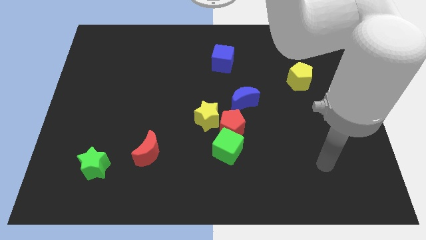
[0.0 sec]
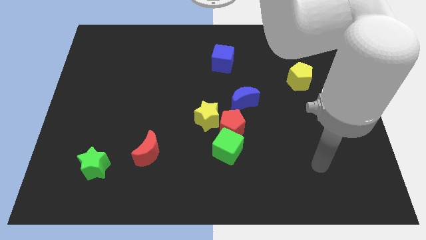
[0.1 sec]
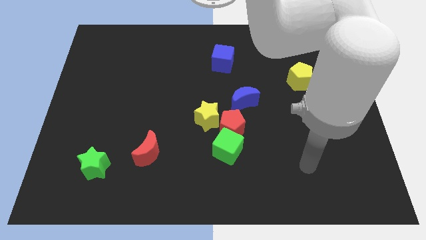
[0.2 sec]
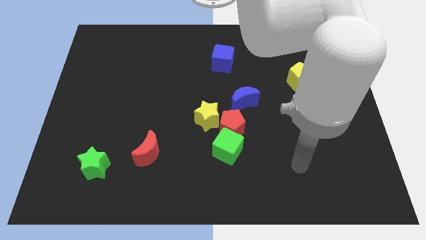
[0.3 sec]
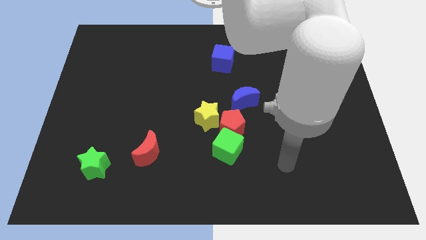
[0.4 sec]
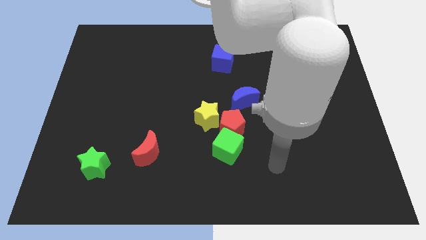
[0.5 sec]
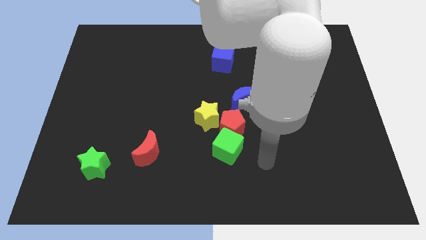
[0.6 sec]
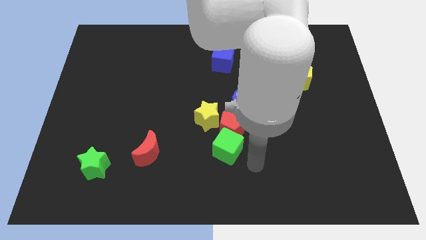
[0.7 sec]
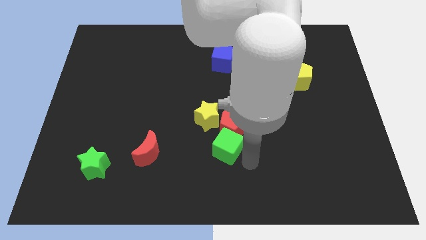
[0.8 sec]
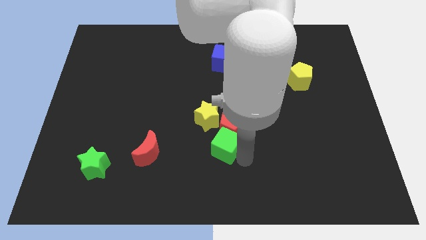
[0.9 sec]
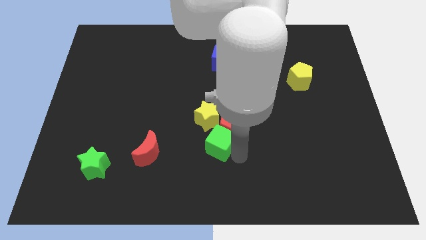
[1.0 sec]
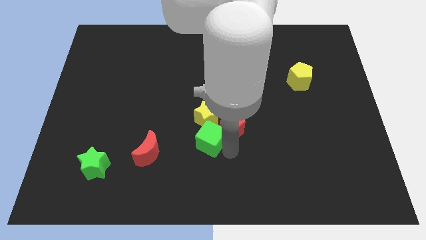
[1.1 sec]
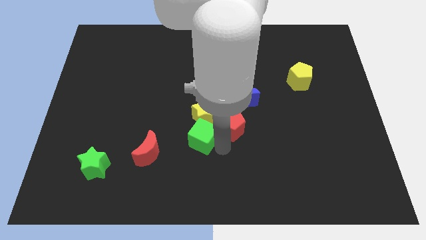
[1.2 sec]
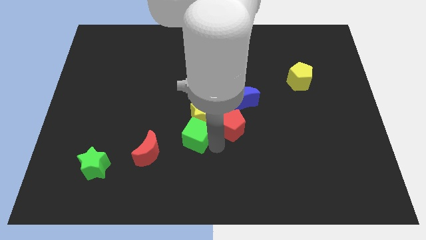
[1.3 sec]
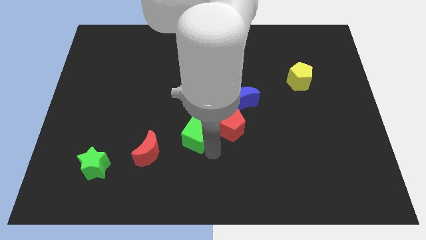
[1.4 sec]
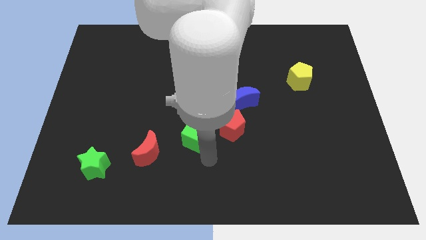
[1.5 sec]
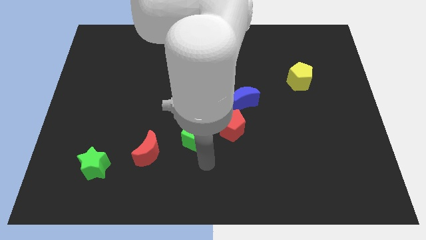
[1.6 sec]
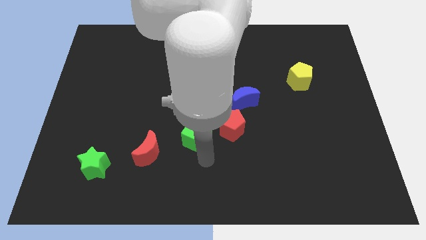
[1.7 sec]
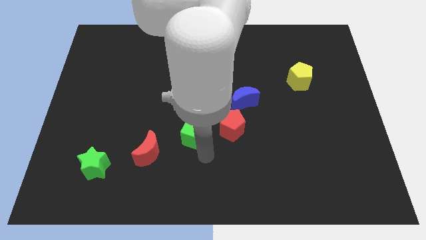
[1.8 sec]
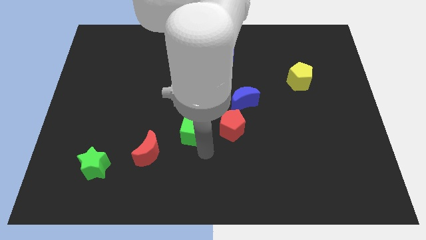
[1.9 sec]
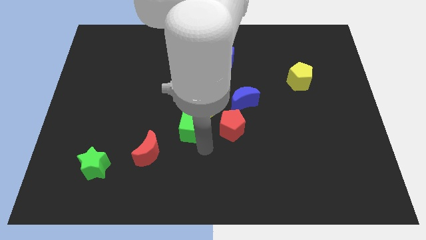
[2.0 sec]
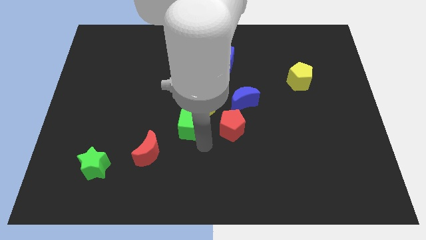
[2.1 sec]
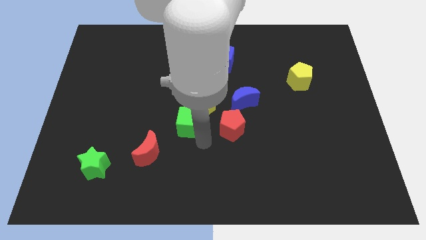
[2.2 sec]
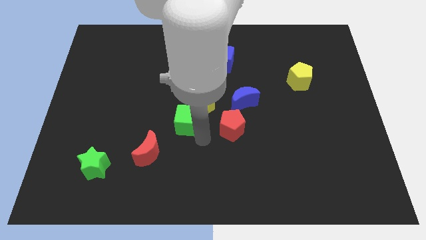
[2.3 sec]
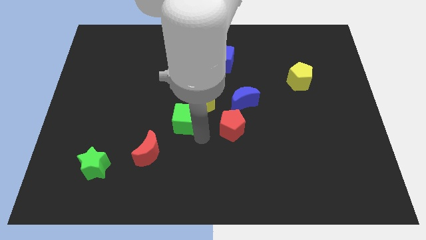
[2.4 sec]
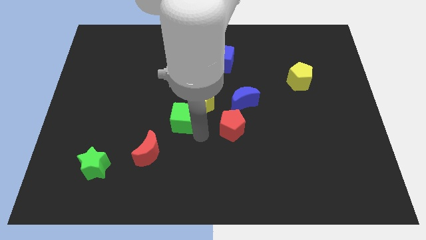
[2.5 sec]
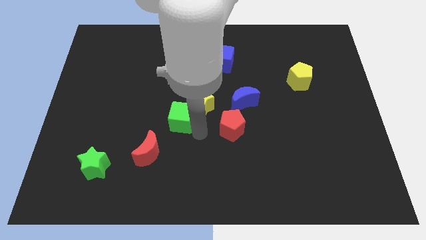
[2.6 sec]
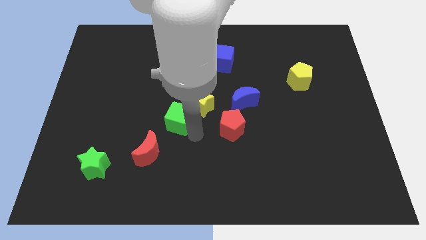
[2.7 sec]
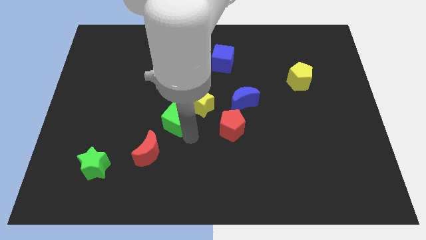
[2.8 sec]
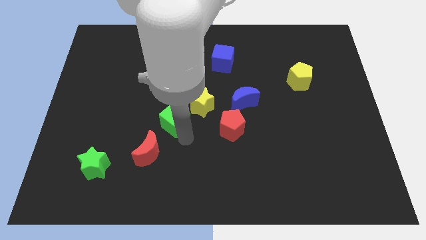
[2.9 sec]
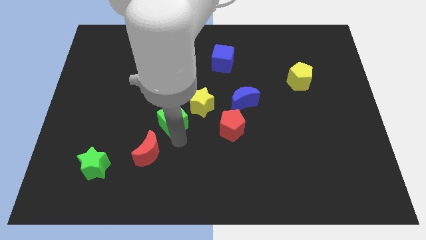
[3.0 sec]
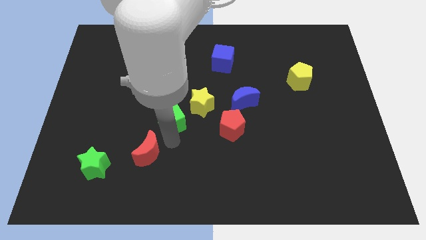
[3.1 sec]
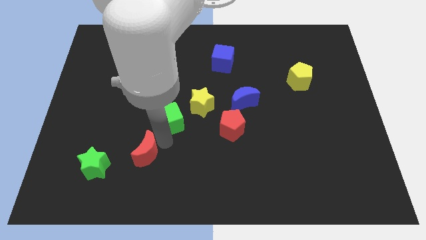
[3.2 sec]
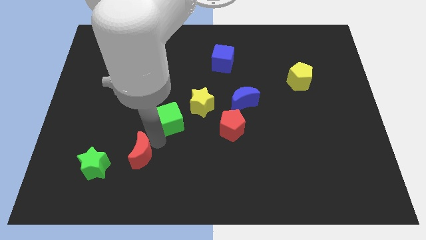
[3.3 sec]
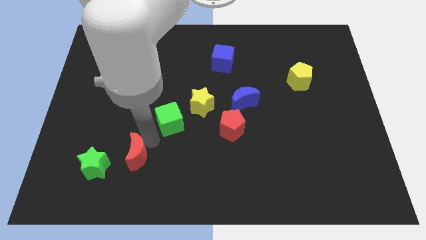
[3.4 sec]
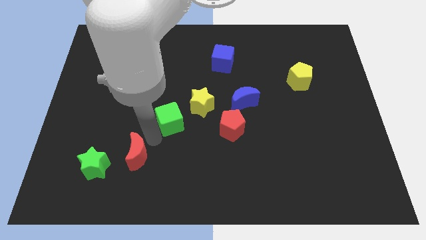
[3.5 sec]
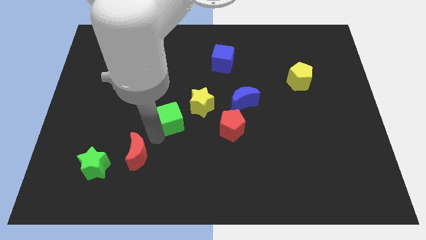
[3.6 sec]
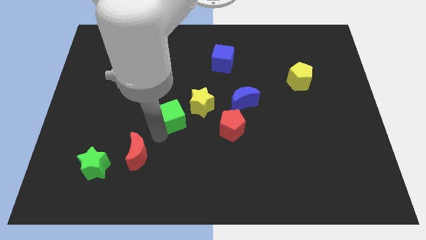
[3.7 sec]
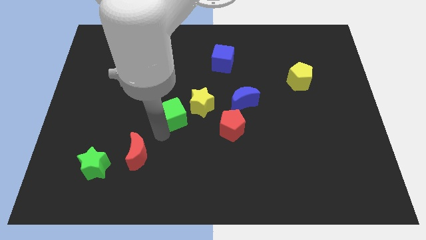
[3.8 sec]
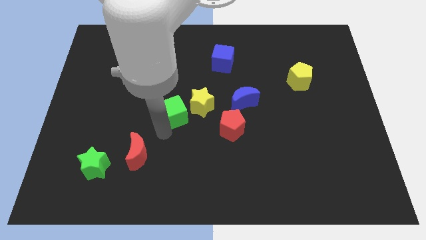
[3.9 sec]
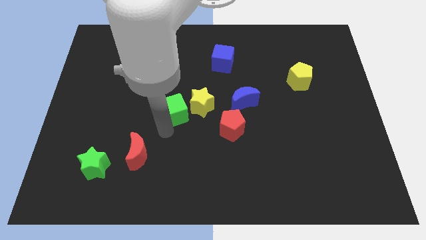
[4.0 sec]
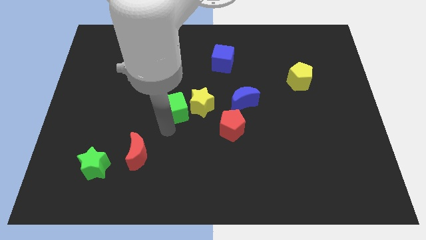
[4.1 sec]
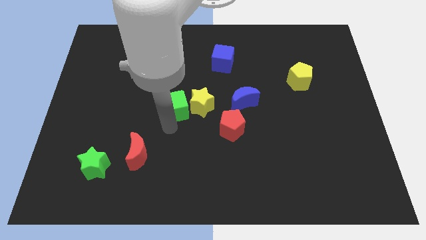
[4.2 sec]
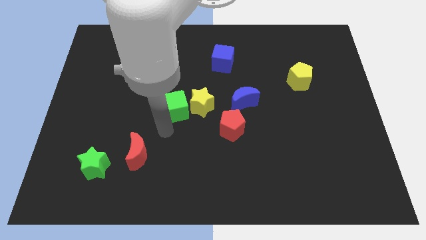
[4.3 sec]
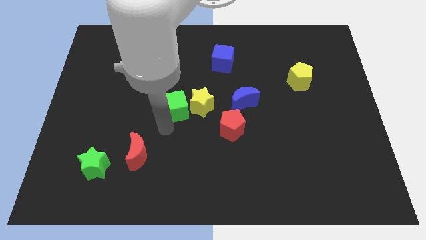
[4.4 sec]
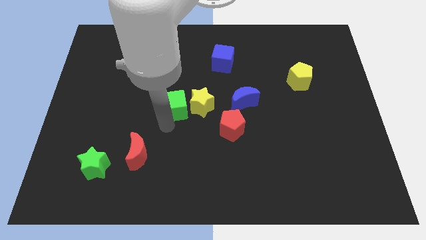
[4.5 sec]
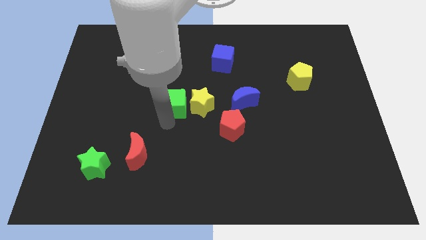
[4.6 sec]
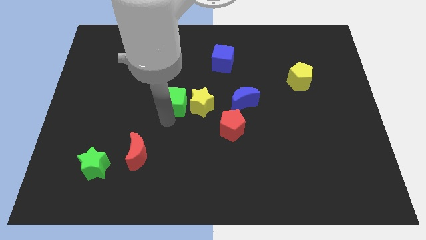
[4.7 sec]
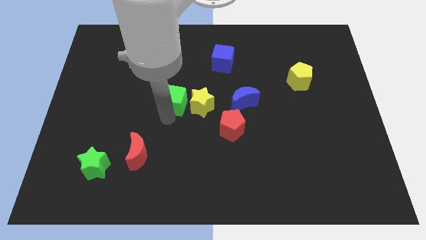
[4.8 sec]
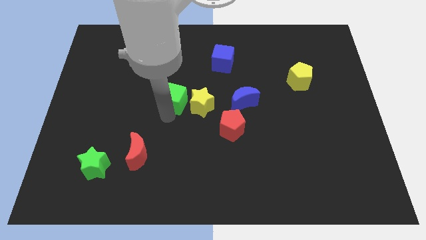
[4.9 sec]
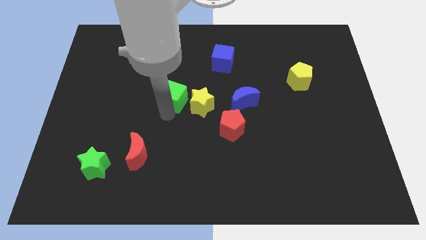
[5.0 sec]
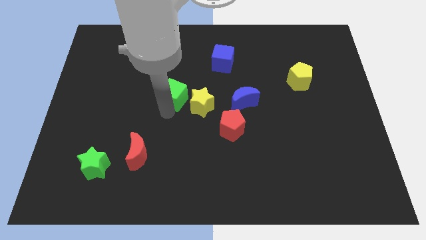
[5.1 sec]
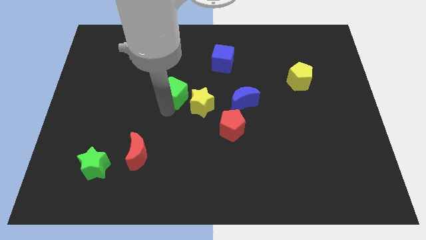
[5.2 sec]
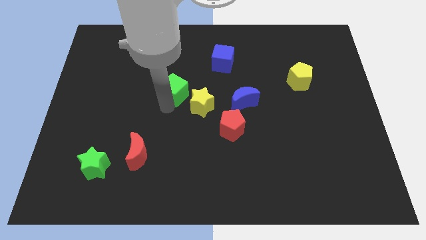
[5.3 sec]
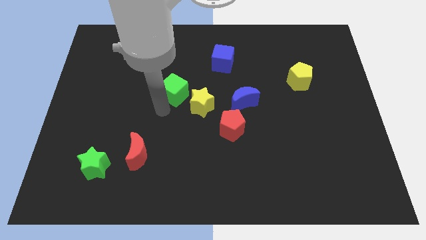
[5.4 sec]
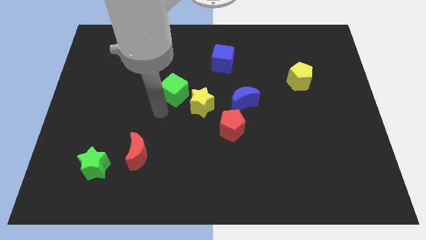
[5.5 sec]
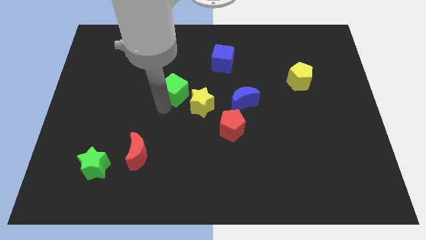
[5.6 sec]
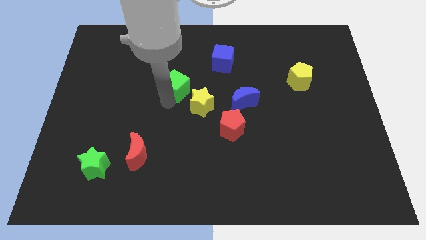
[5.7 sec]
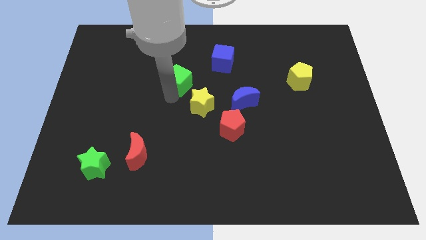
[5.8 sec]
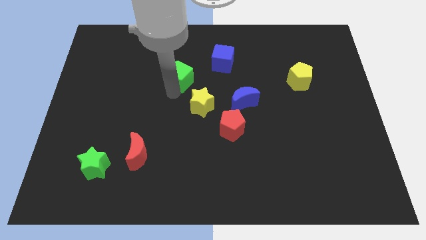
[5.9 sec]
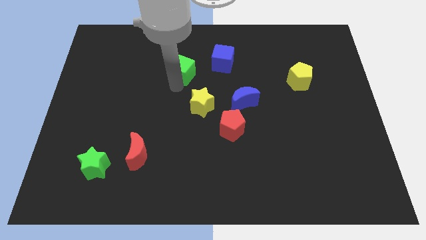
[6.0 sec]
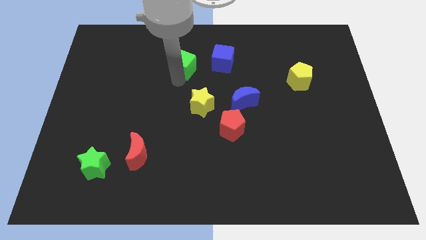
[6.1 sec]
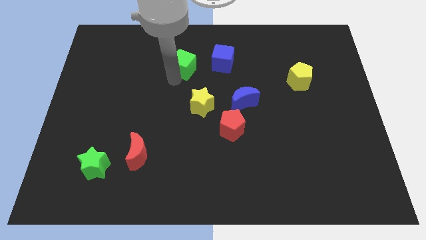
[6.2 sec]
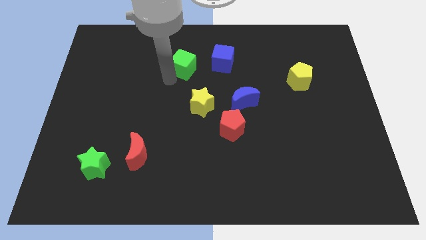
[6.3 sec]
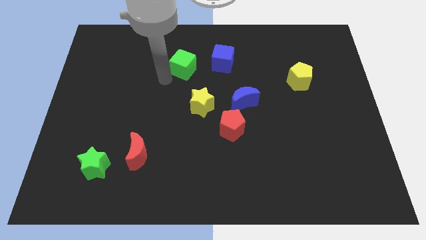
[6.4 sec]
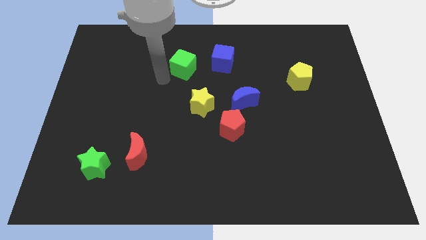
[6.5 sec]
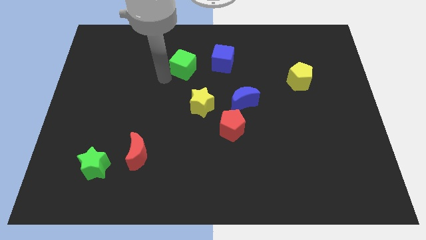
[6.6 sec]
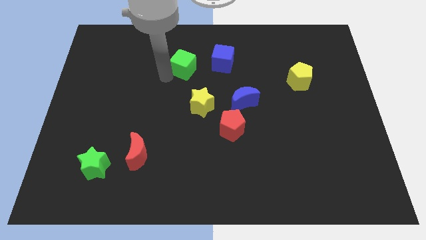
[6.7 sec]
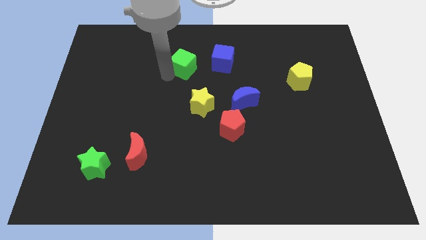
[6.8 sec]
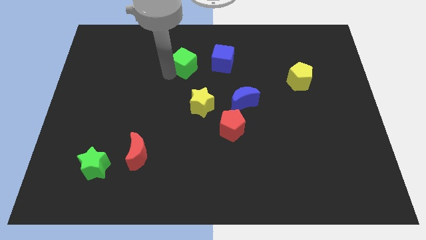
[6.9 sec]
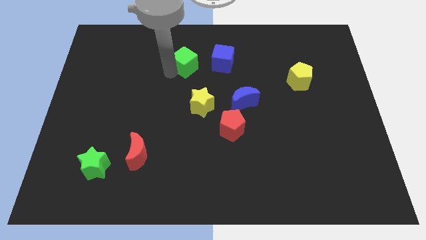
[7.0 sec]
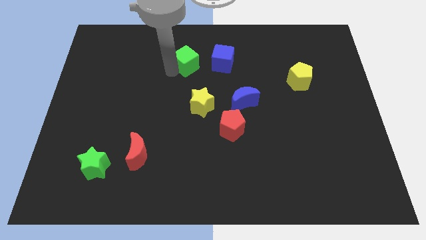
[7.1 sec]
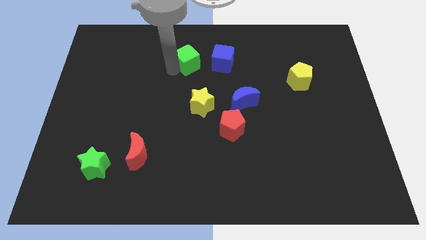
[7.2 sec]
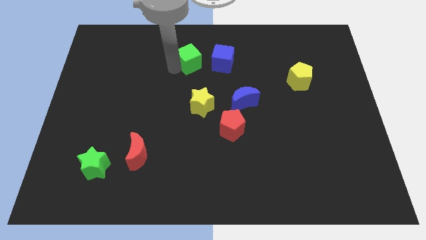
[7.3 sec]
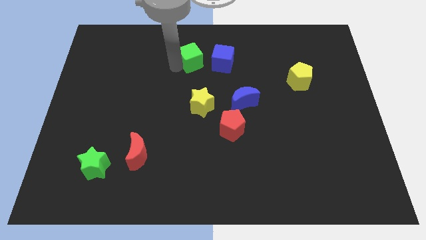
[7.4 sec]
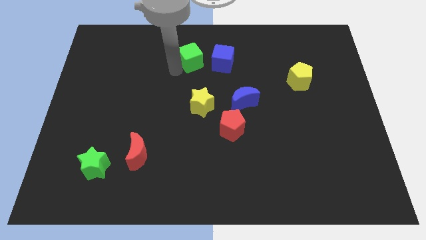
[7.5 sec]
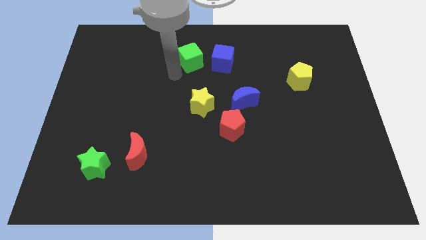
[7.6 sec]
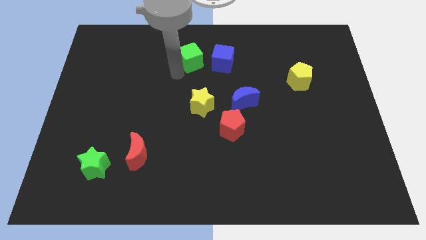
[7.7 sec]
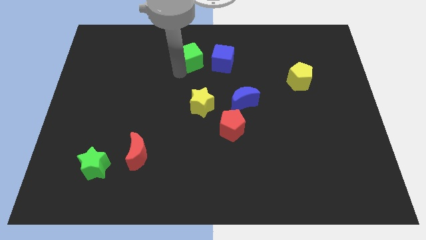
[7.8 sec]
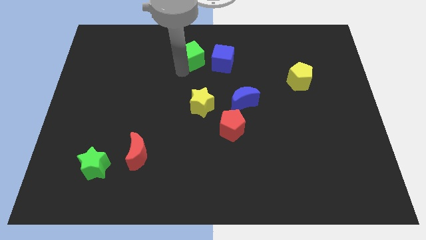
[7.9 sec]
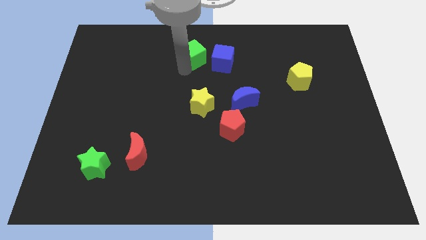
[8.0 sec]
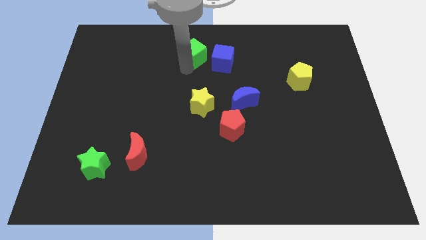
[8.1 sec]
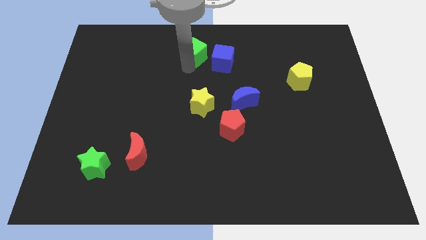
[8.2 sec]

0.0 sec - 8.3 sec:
put the green cube to the top
